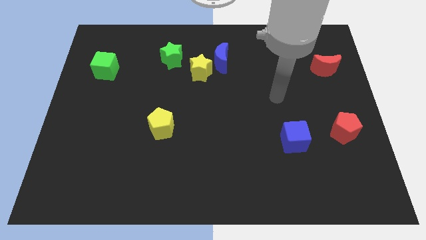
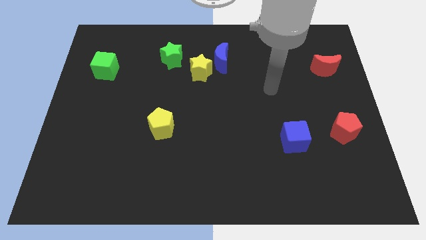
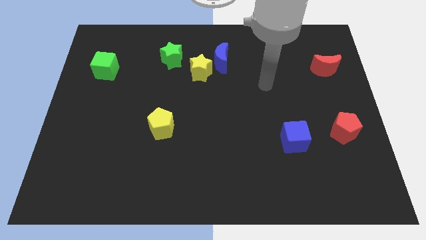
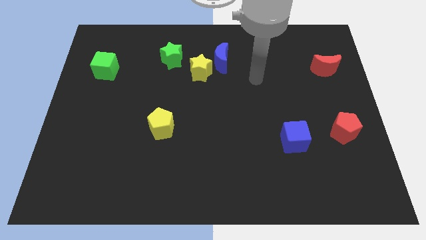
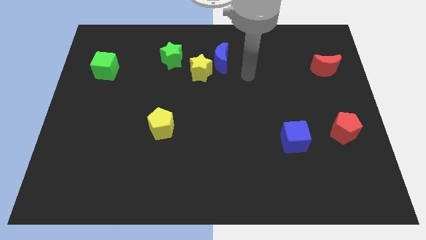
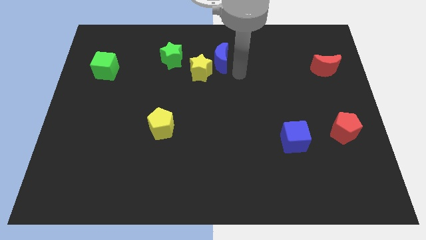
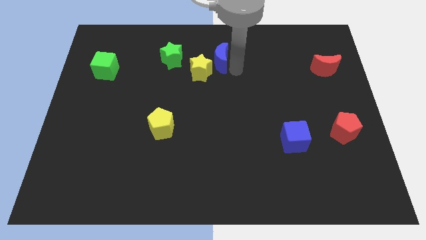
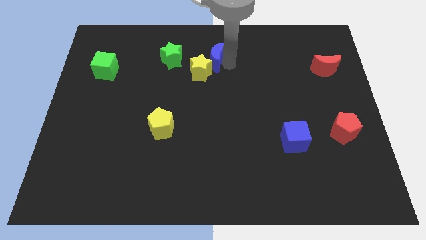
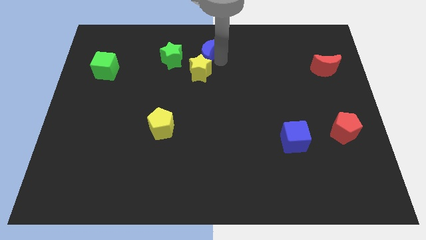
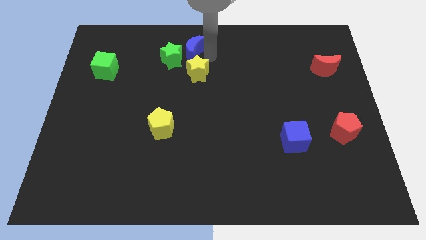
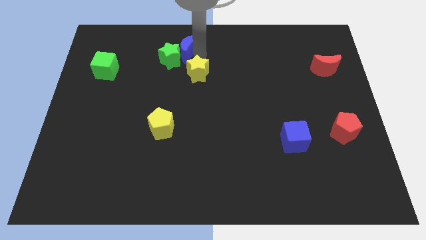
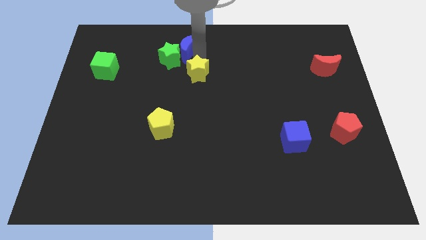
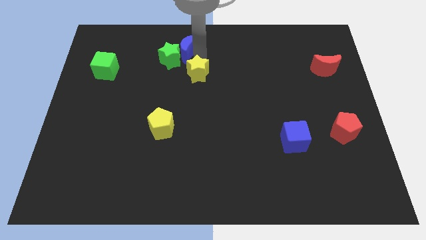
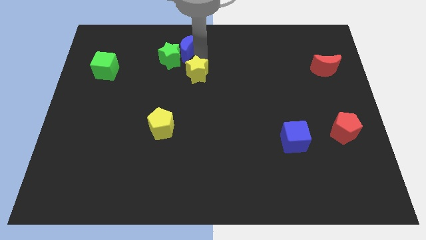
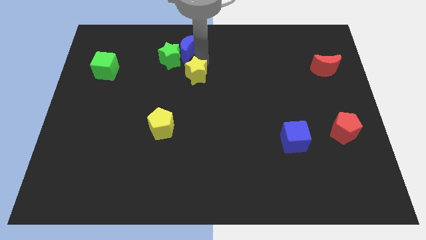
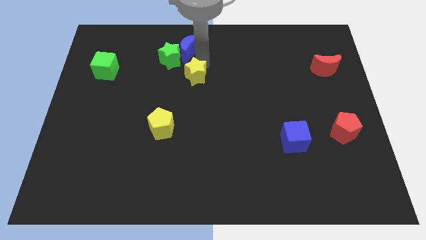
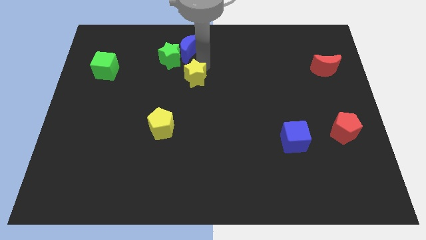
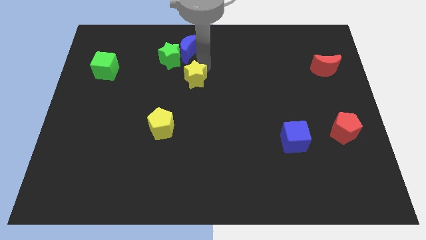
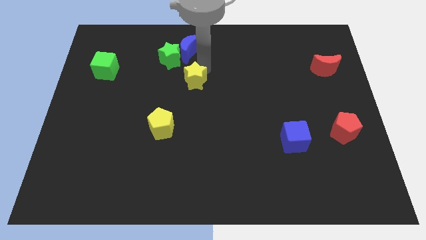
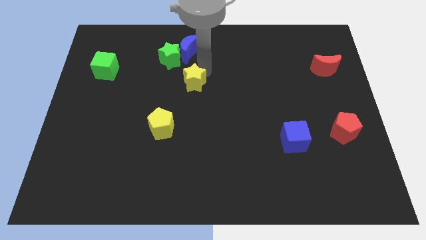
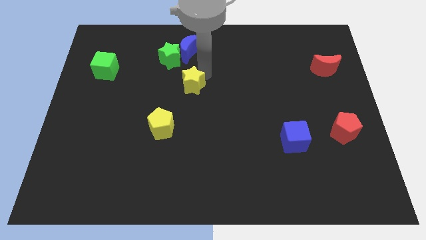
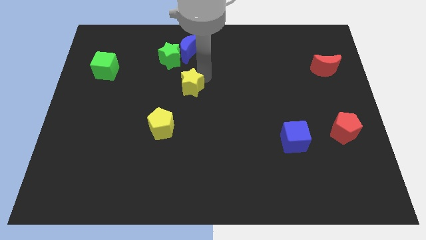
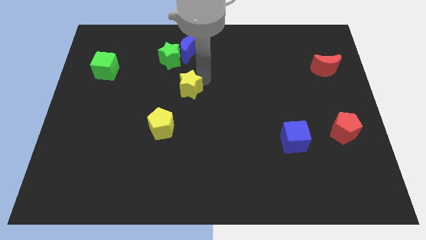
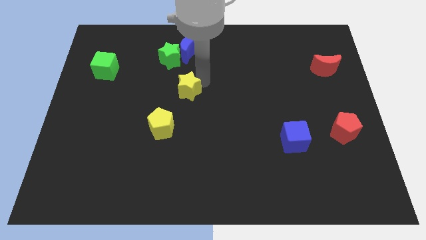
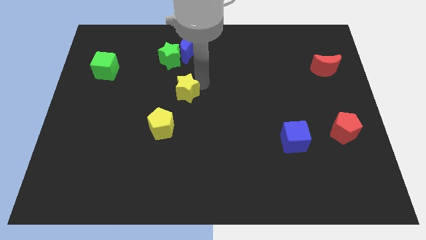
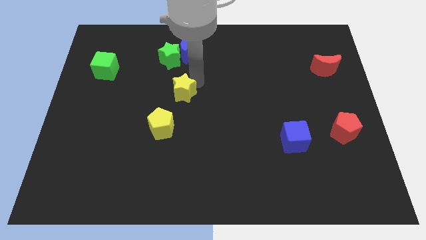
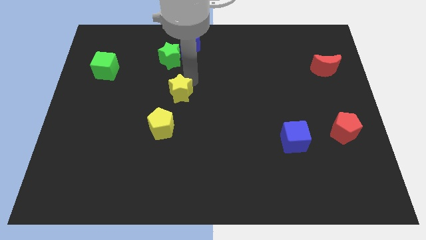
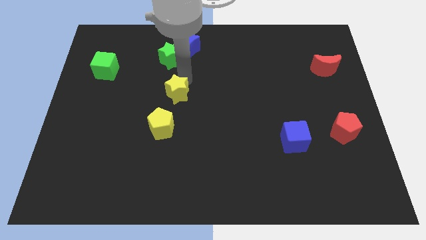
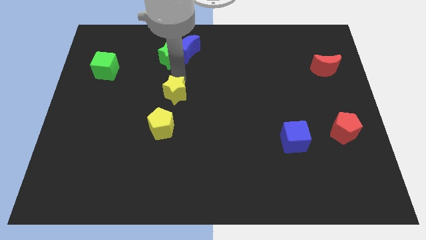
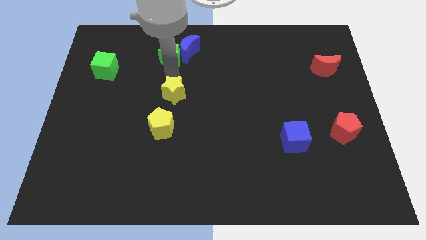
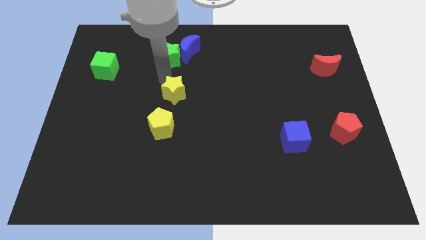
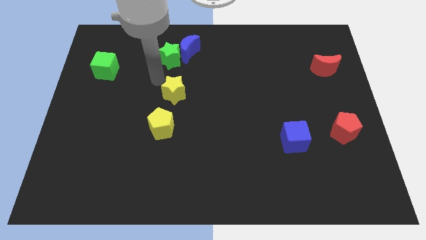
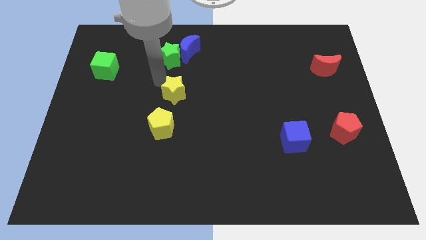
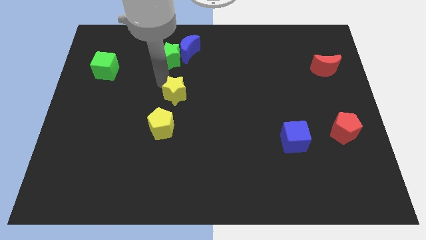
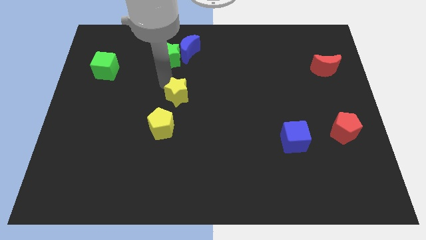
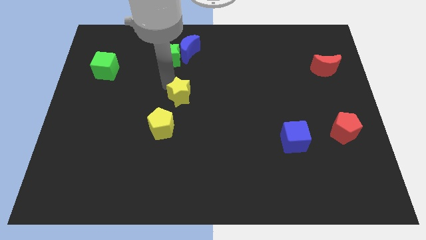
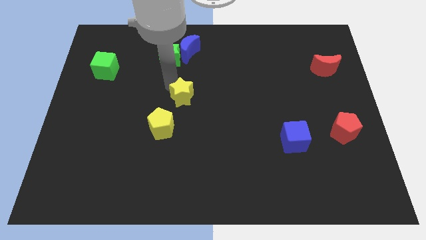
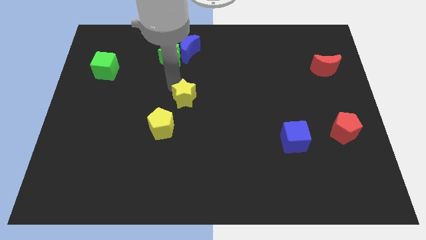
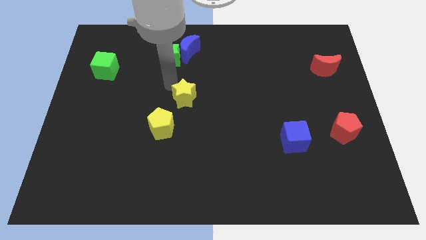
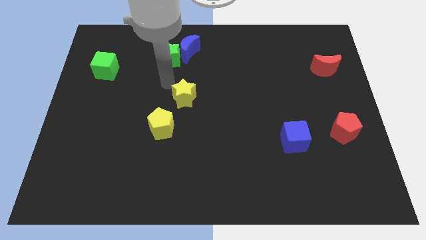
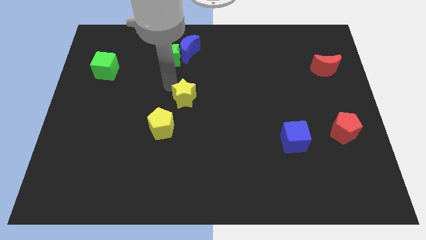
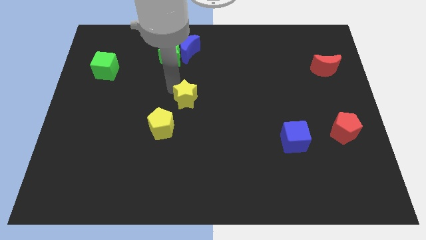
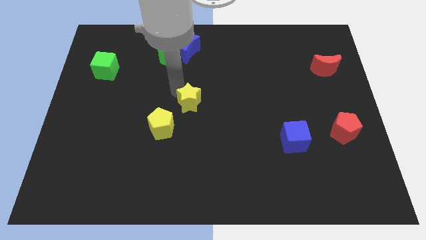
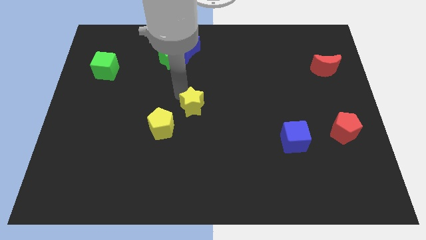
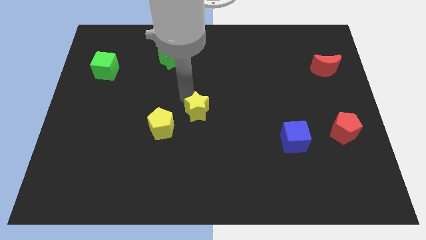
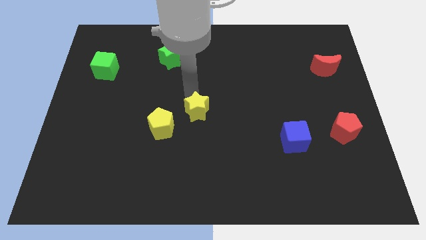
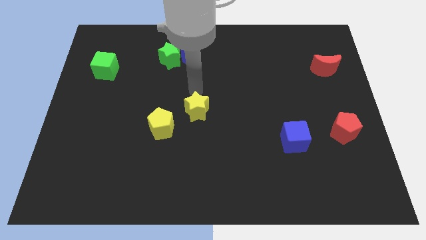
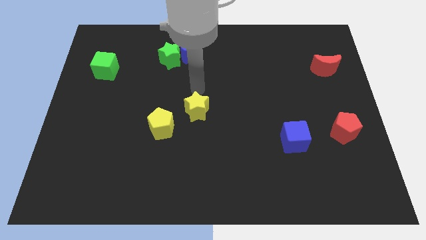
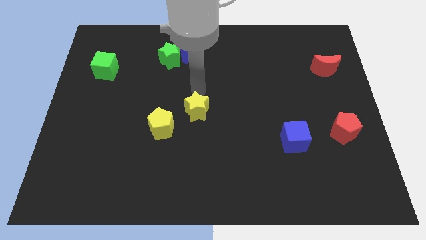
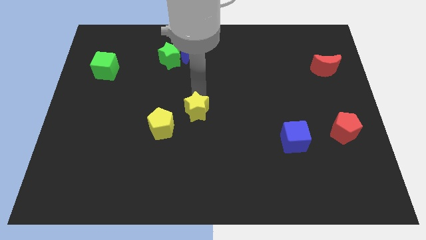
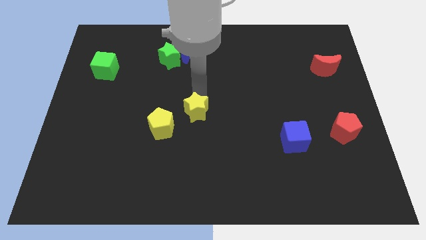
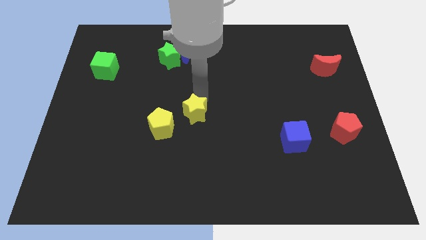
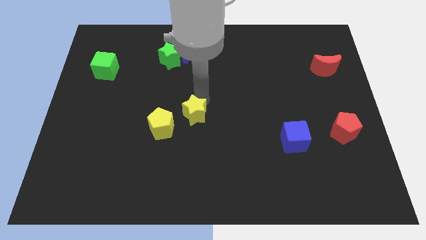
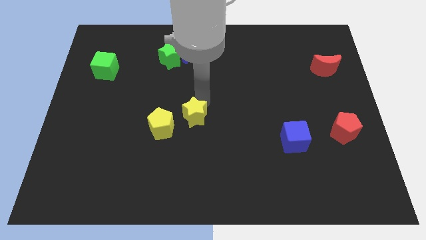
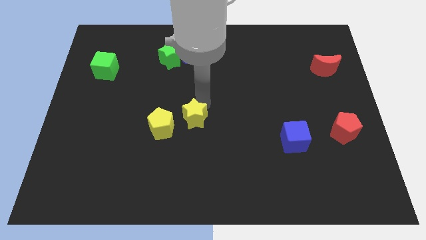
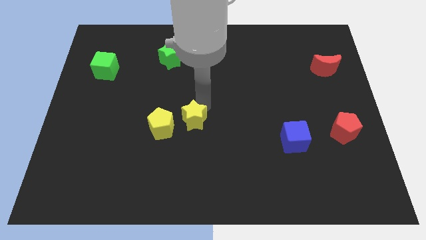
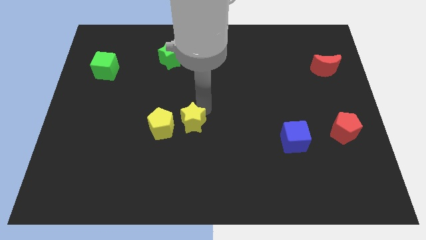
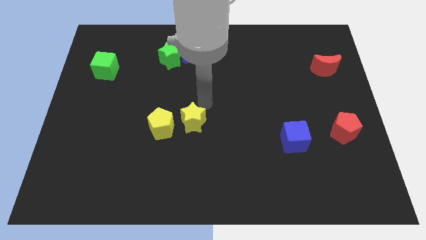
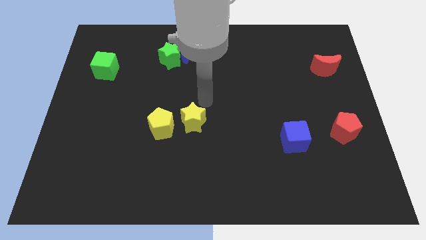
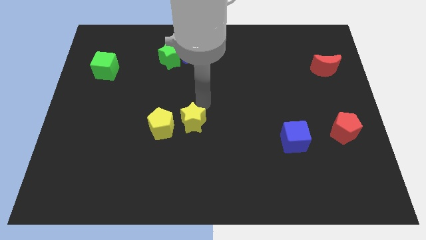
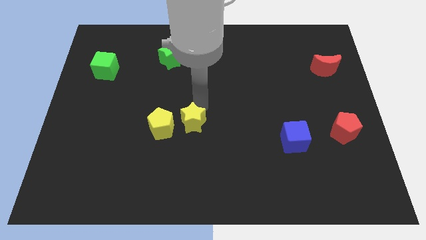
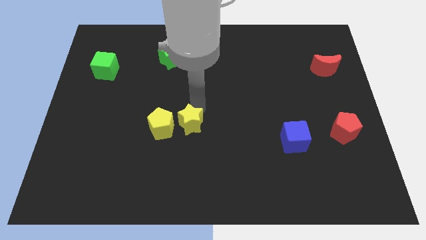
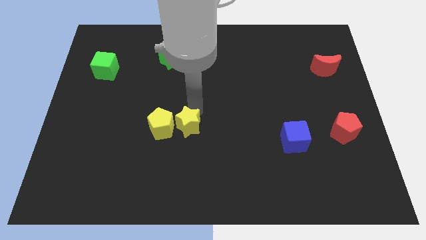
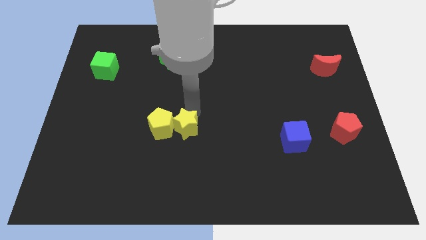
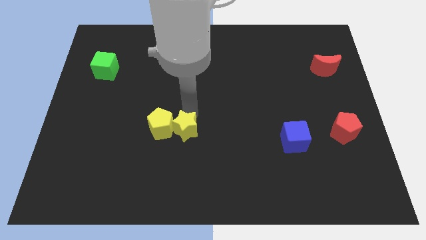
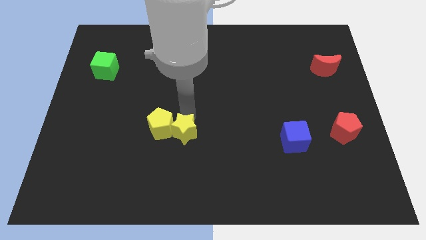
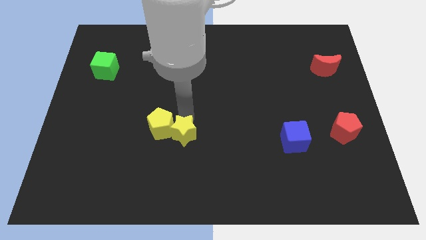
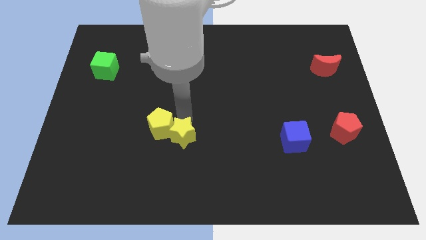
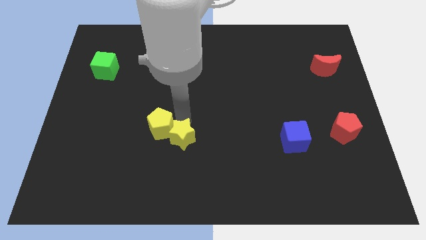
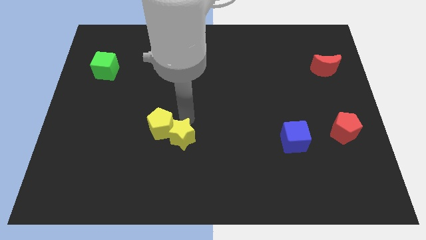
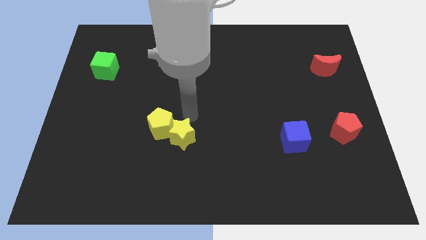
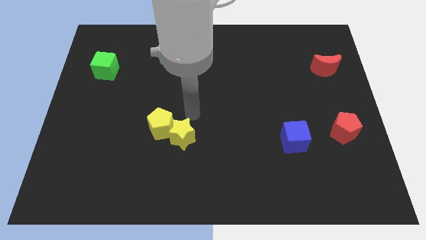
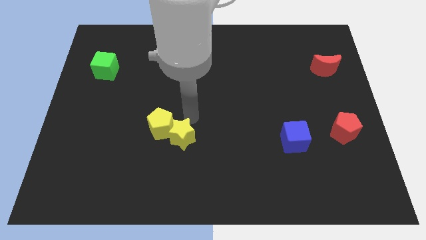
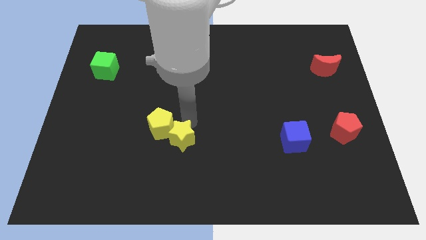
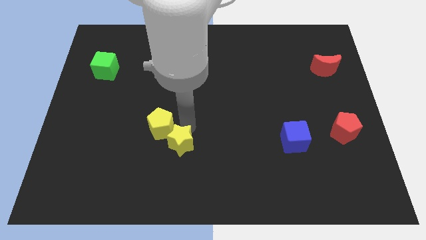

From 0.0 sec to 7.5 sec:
slide the yellow star to the bottom side of the yellow pentagon
